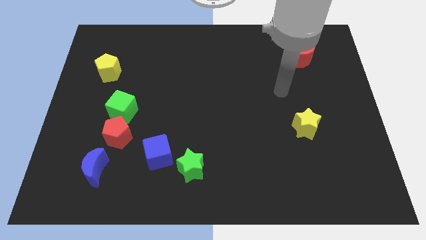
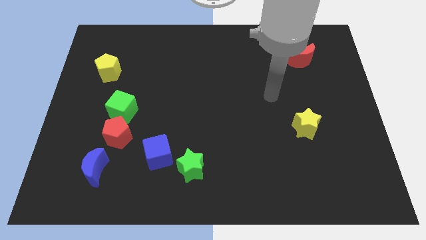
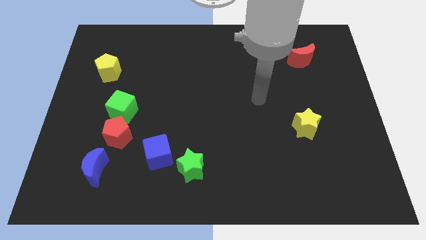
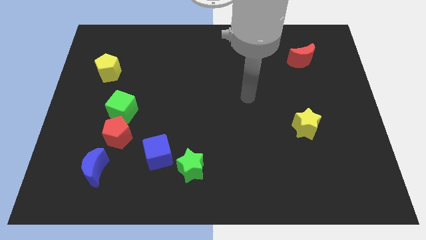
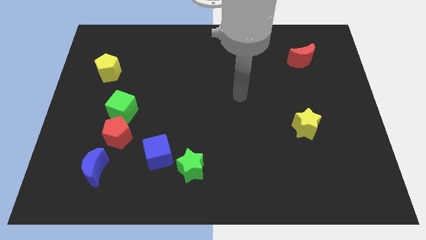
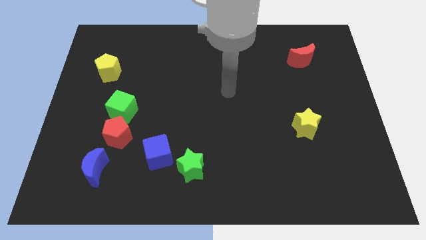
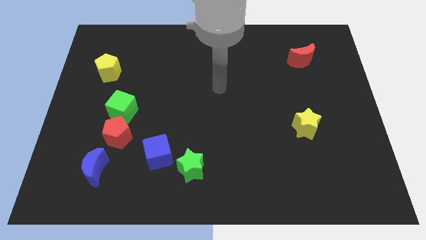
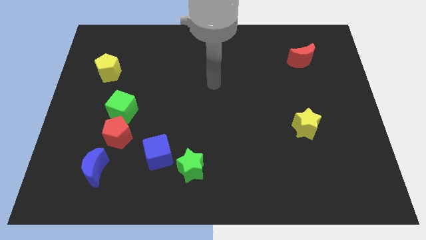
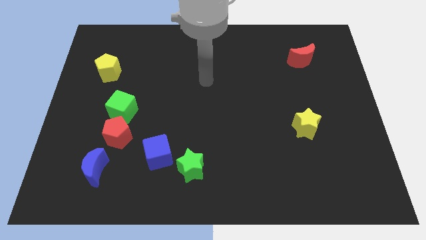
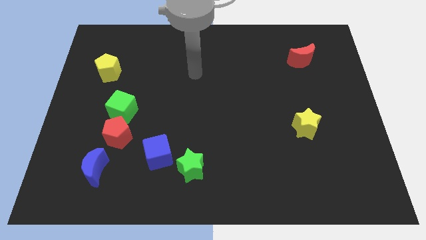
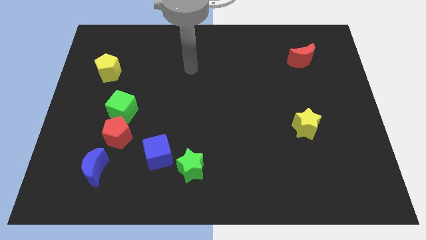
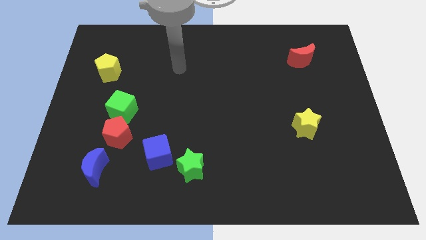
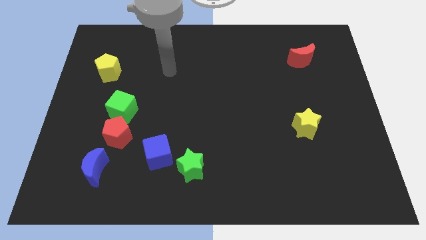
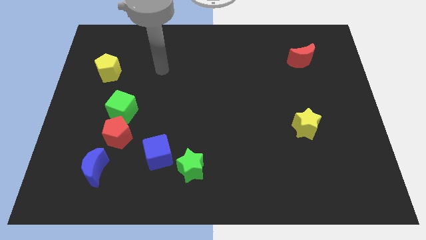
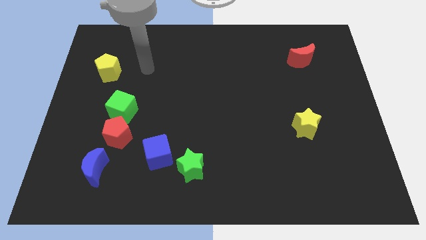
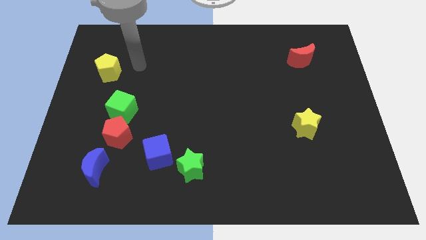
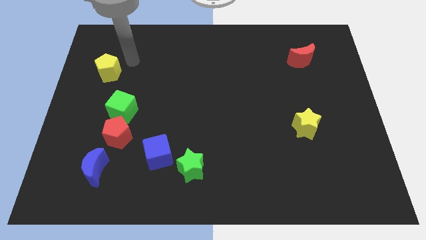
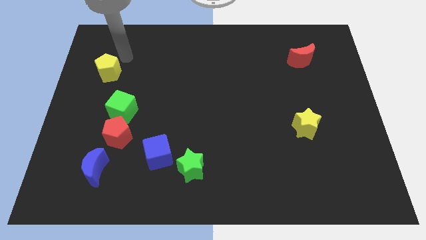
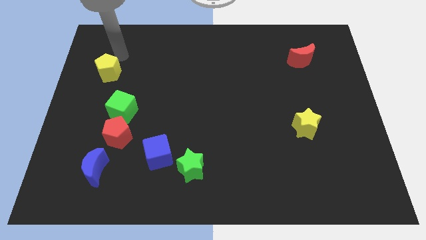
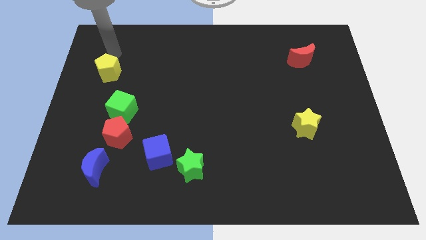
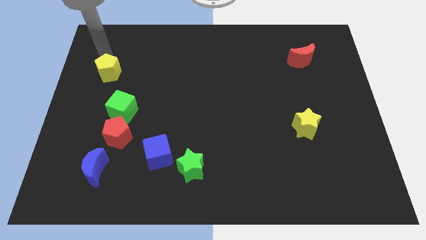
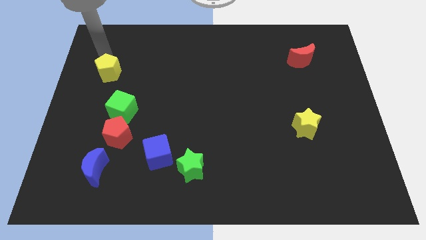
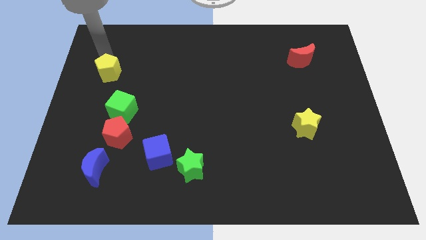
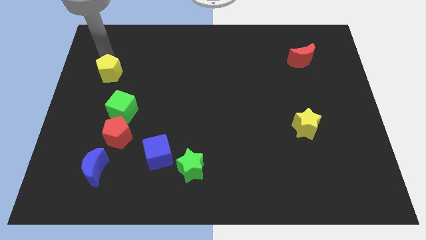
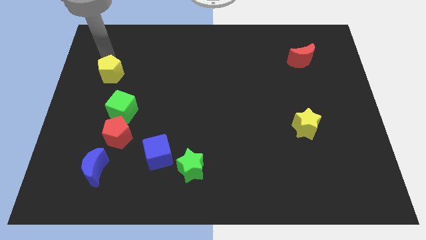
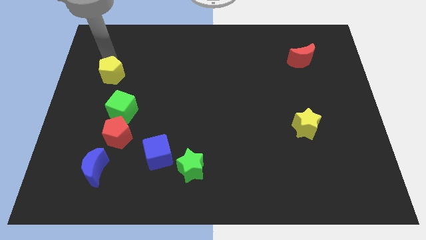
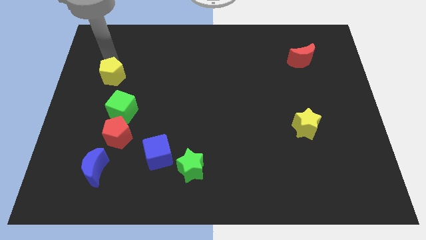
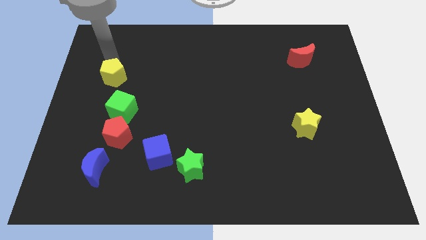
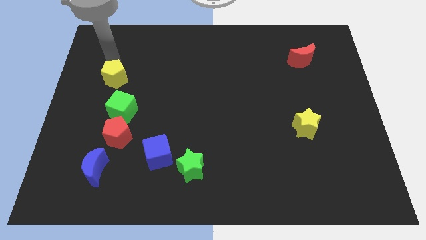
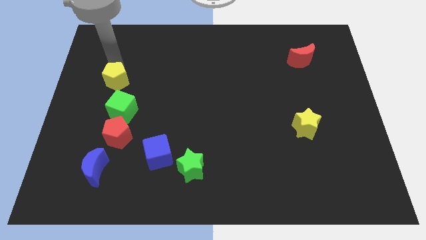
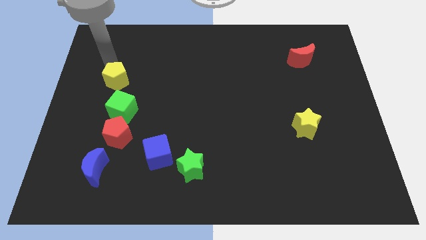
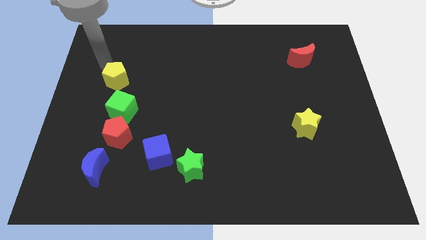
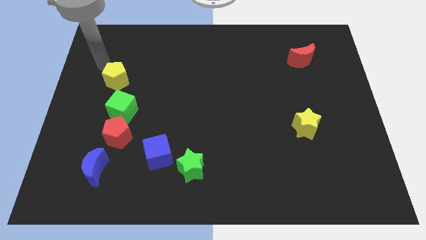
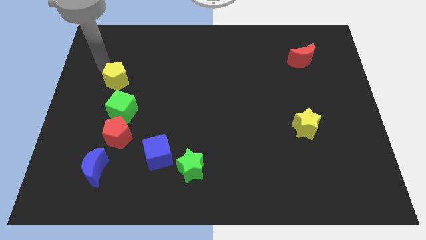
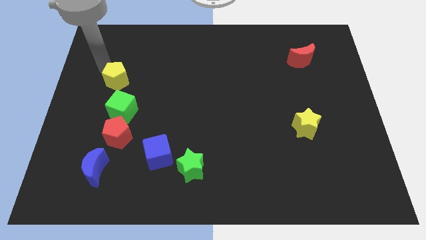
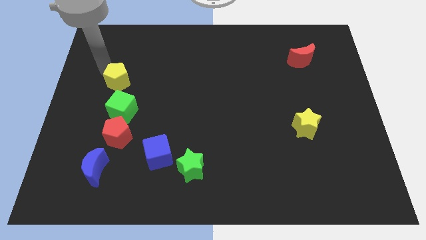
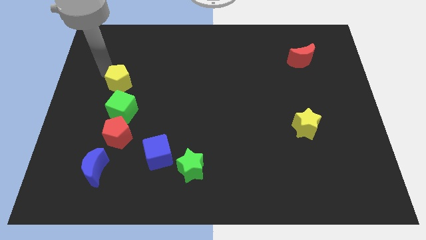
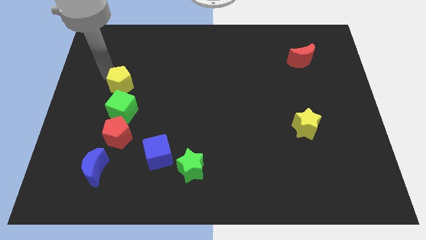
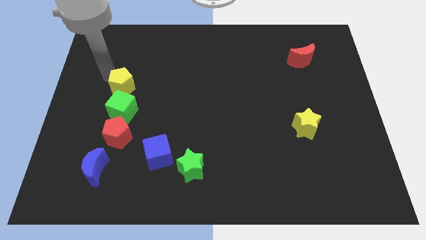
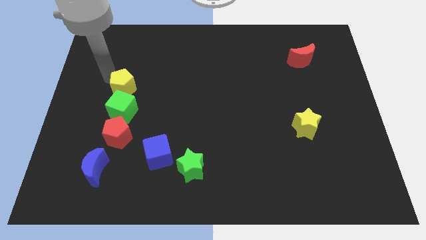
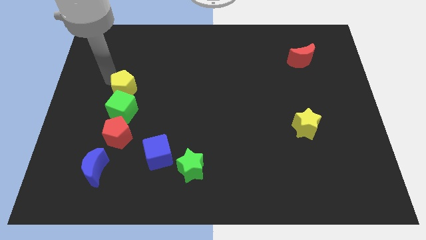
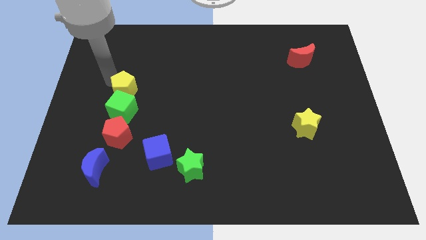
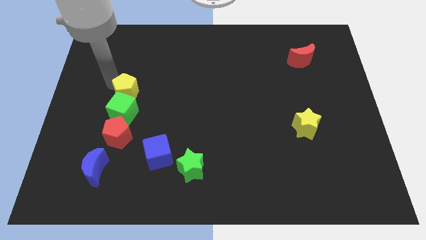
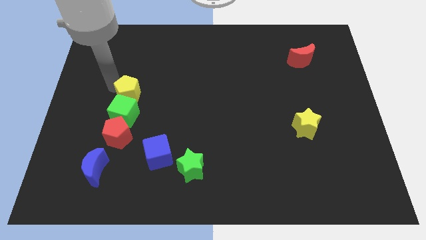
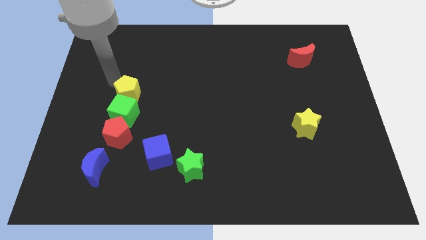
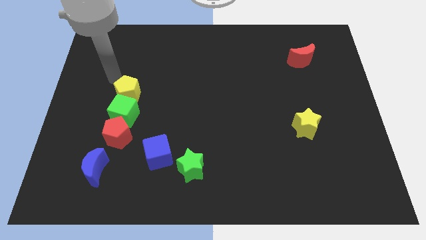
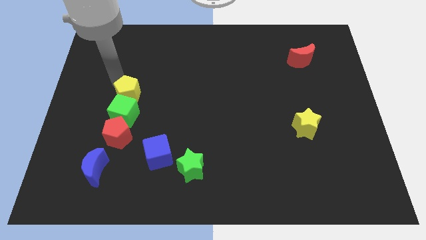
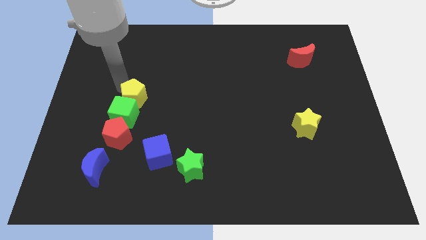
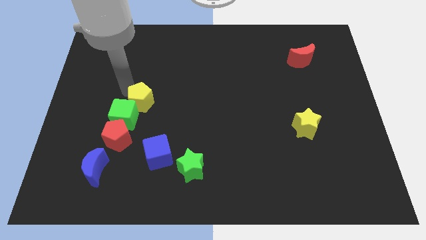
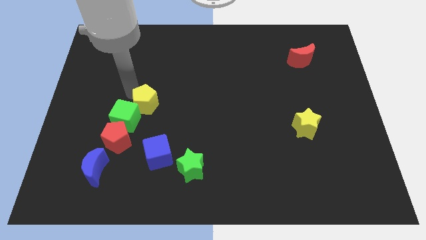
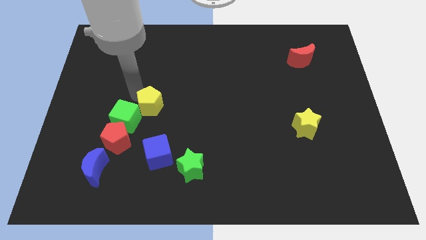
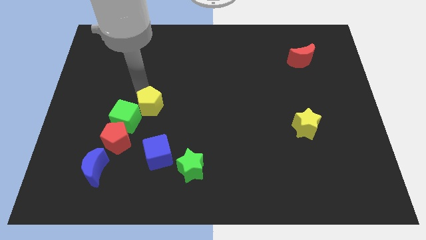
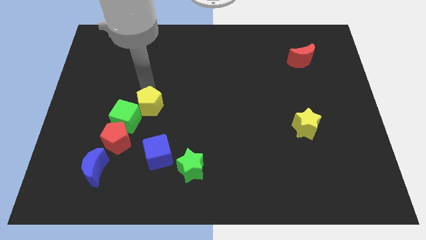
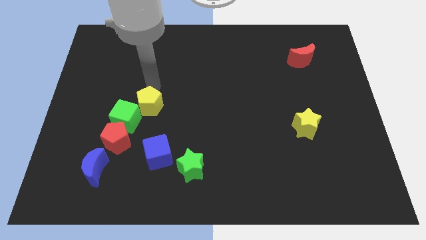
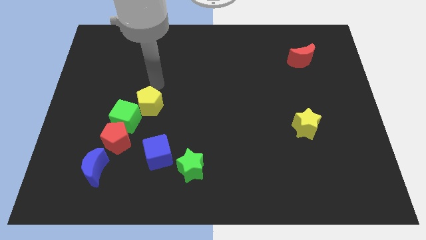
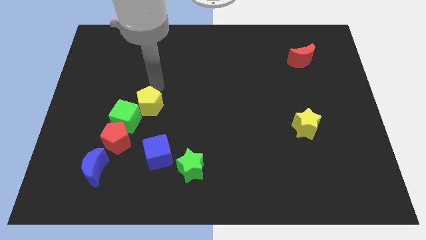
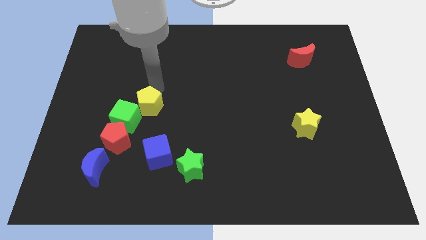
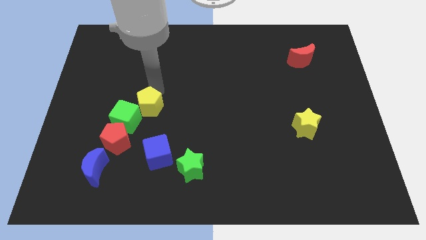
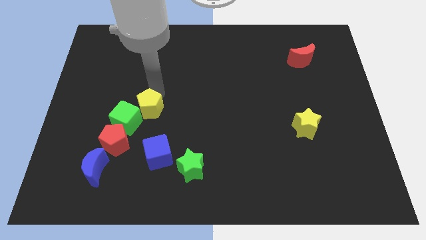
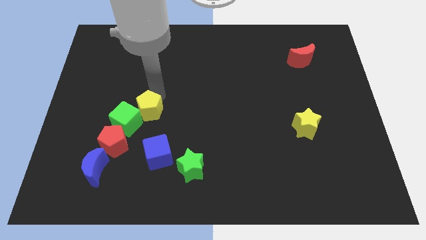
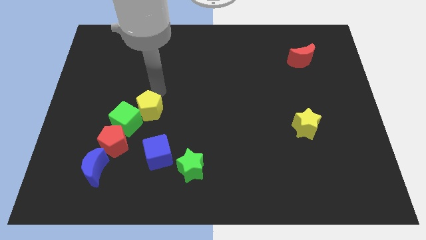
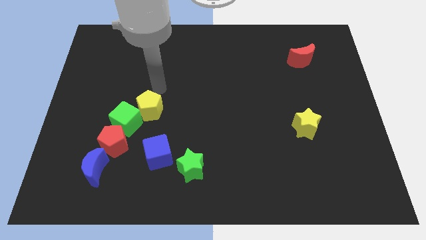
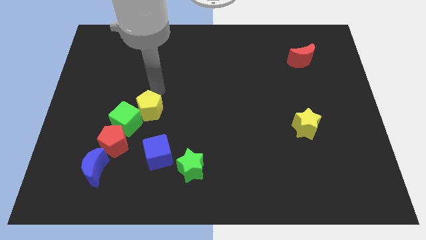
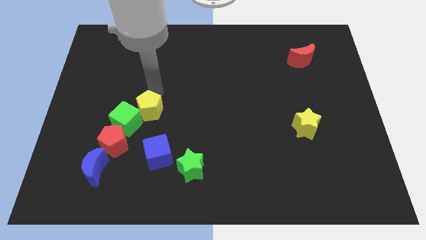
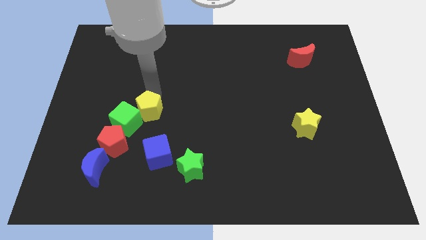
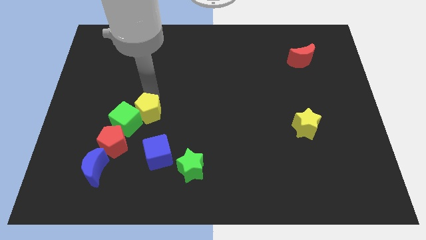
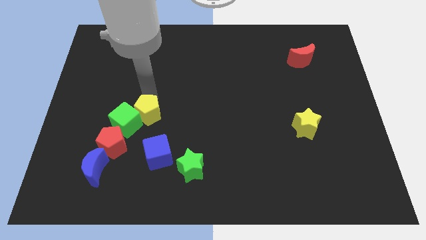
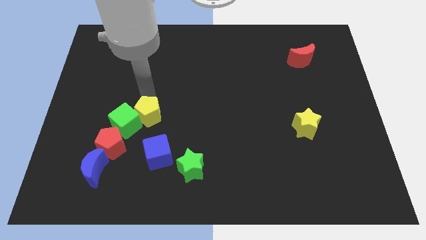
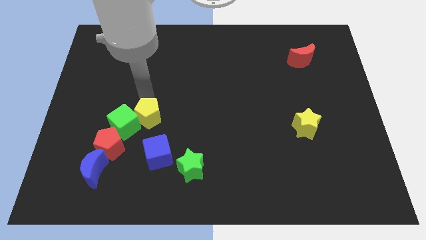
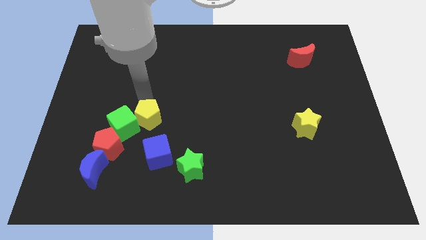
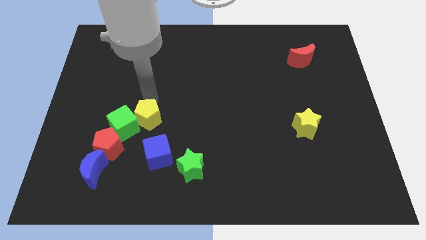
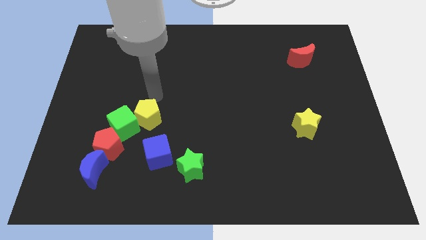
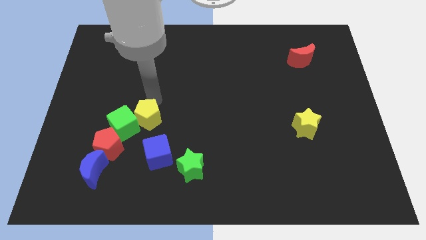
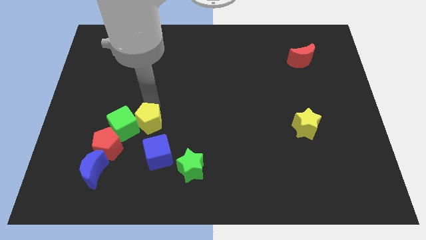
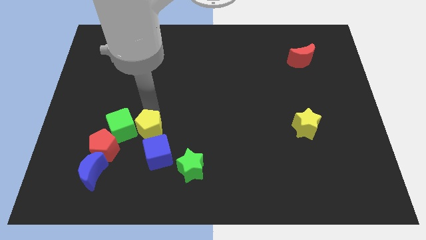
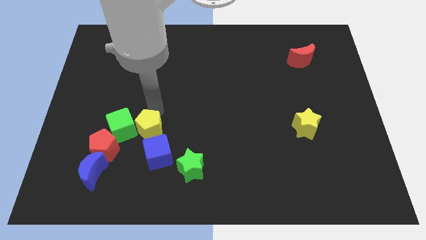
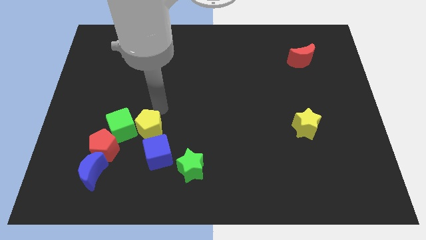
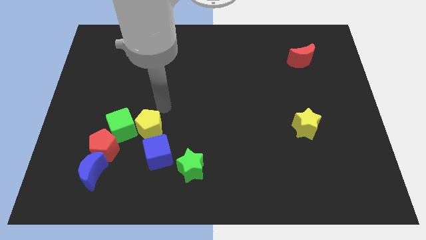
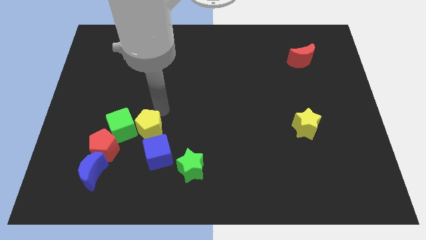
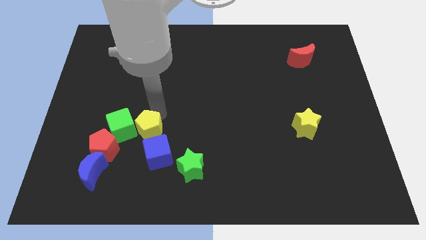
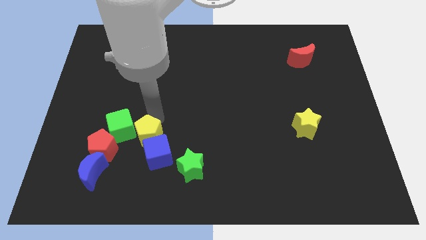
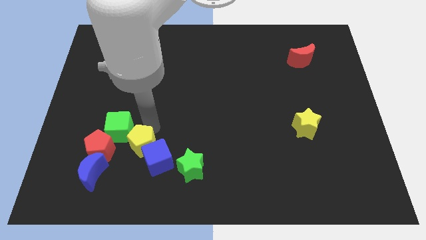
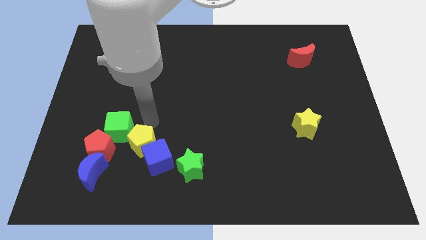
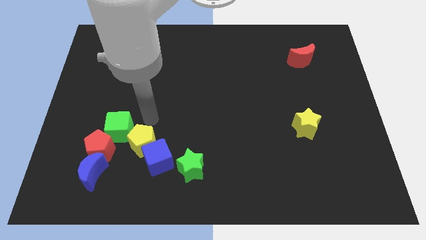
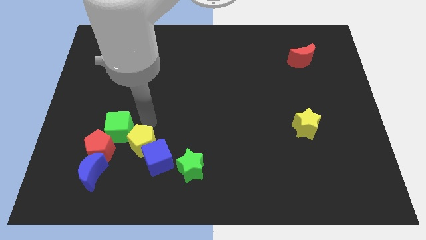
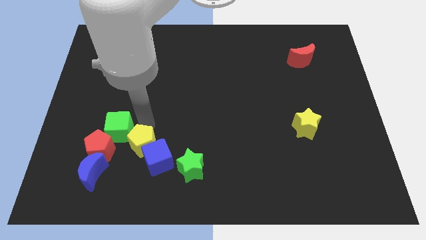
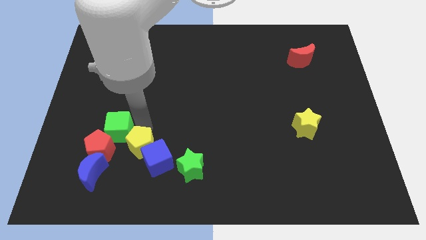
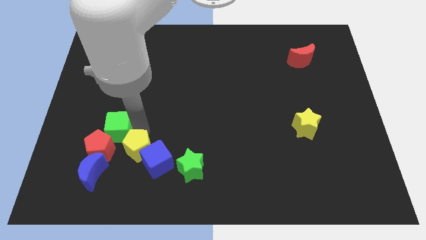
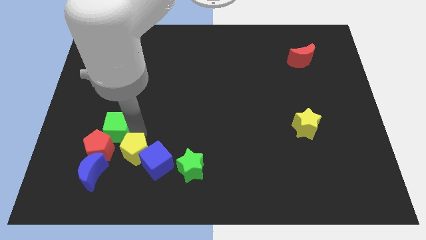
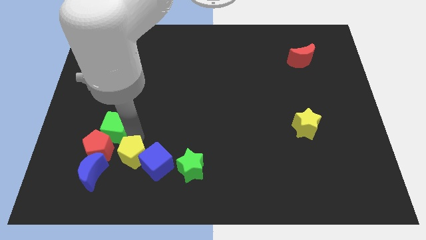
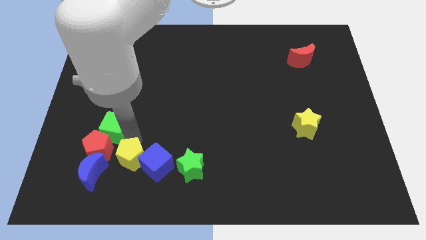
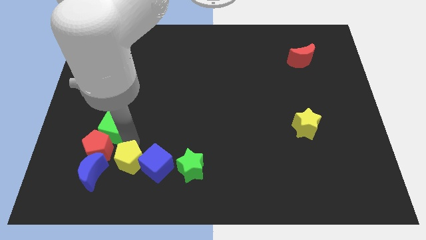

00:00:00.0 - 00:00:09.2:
push the yellow pentagon to the bottom left of the blue cube
